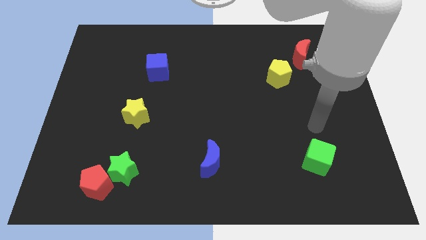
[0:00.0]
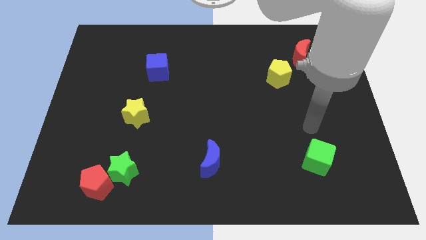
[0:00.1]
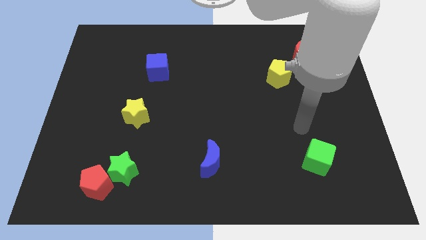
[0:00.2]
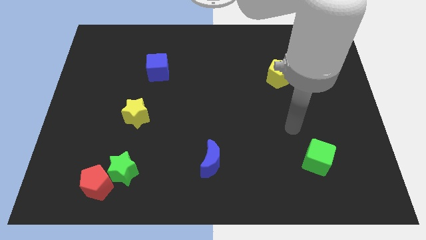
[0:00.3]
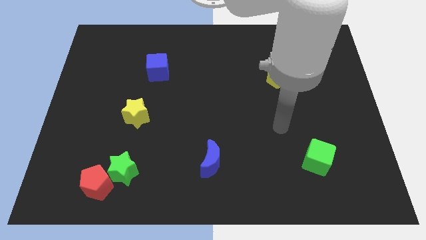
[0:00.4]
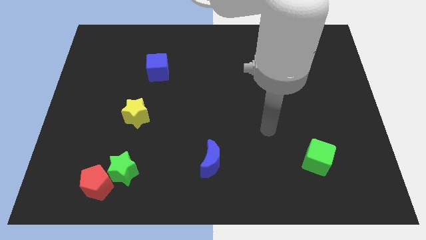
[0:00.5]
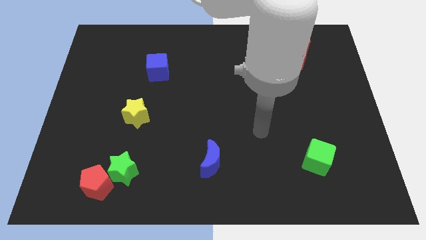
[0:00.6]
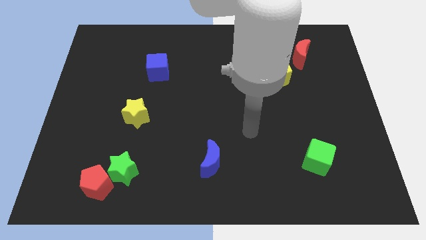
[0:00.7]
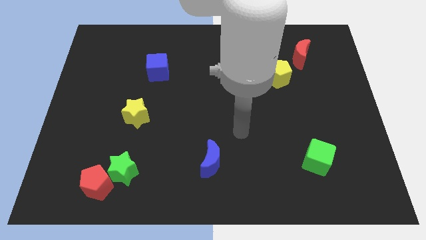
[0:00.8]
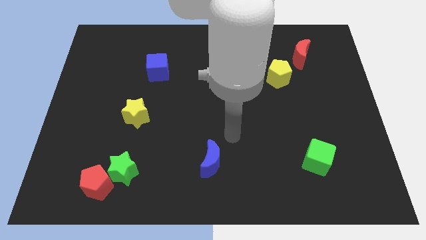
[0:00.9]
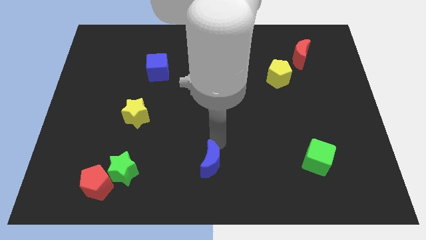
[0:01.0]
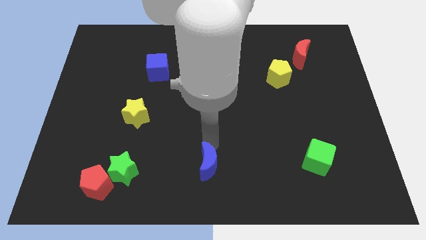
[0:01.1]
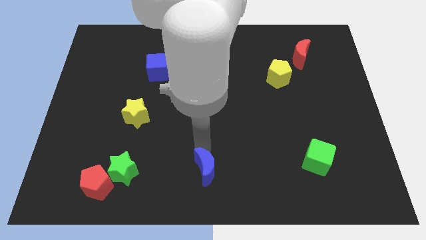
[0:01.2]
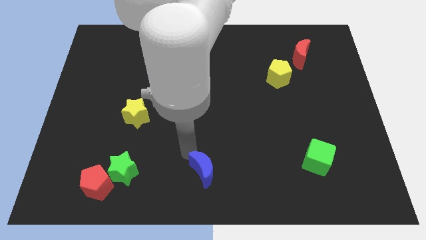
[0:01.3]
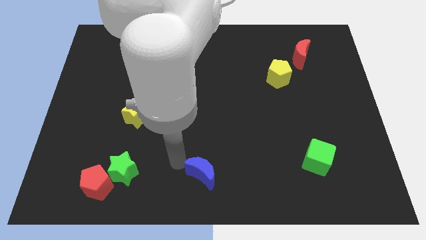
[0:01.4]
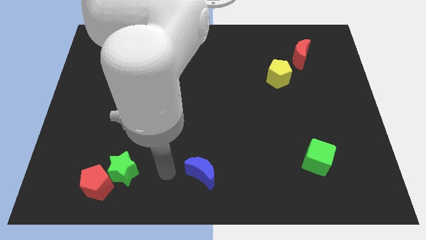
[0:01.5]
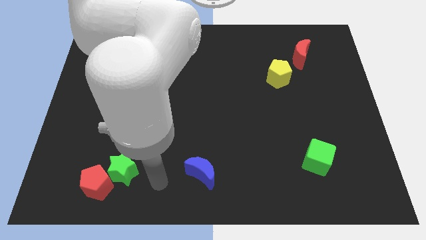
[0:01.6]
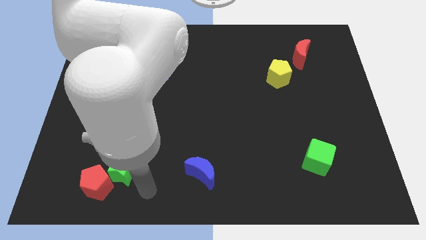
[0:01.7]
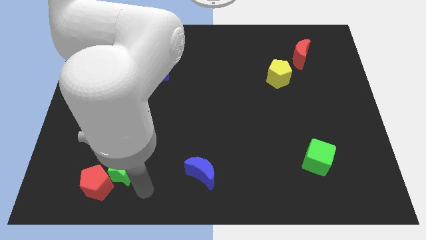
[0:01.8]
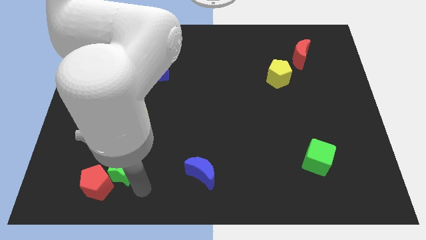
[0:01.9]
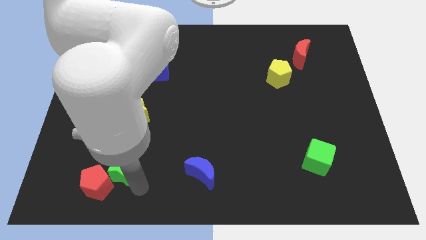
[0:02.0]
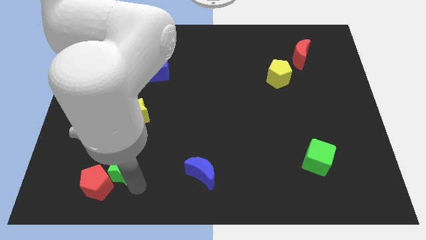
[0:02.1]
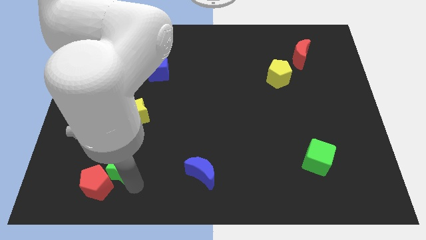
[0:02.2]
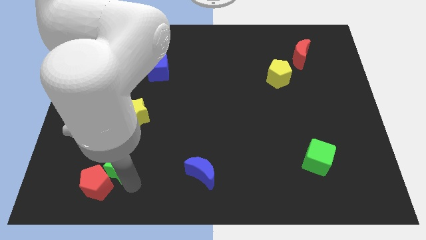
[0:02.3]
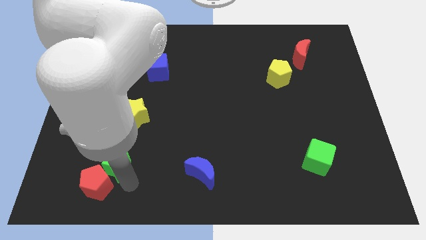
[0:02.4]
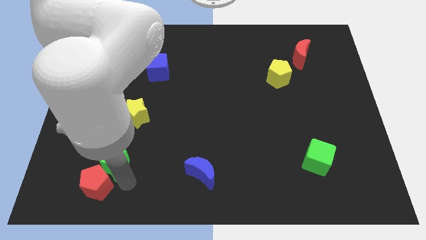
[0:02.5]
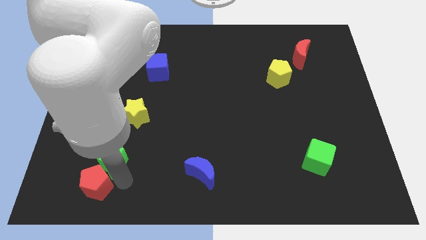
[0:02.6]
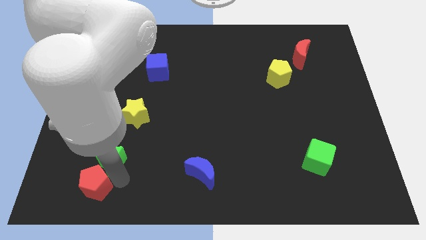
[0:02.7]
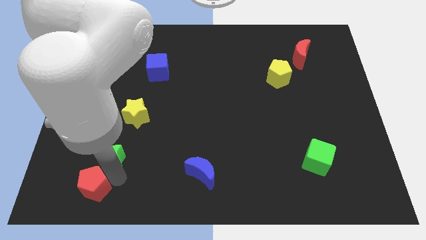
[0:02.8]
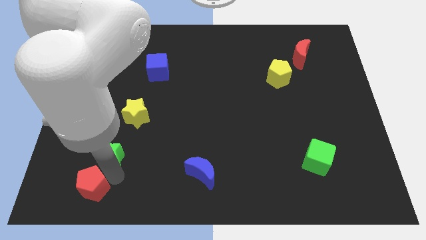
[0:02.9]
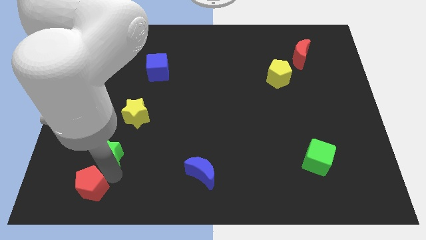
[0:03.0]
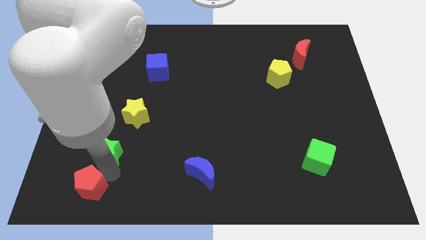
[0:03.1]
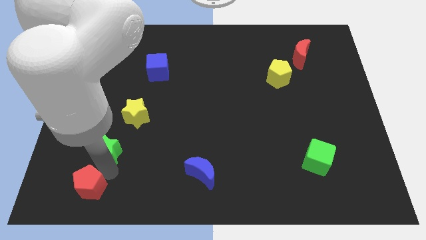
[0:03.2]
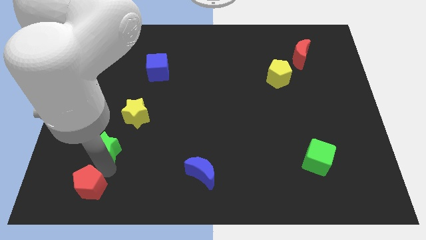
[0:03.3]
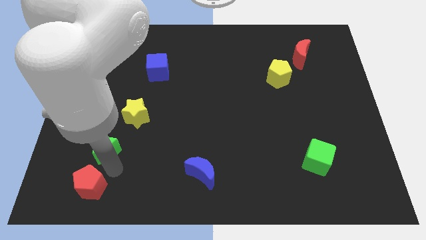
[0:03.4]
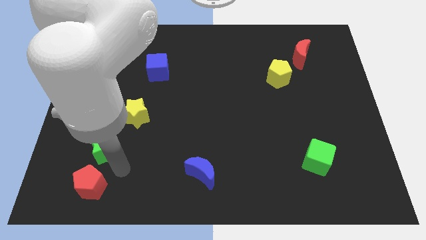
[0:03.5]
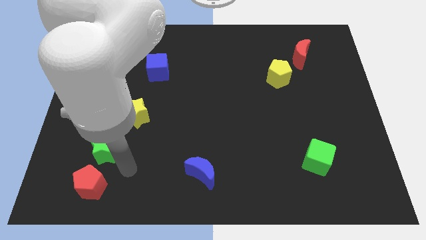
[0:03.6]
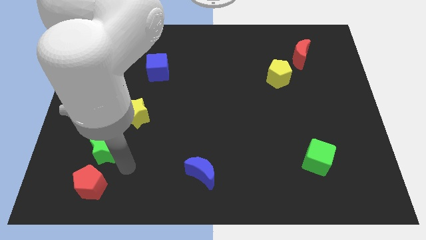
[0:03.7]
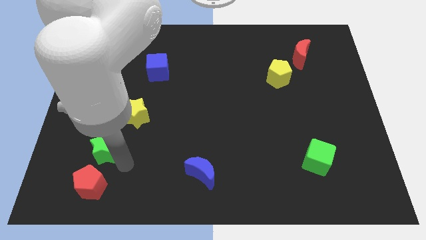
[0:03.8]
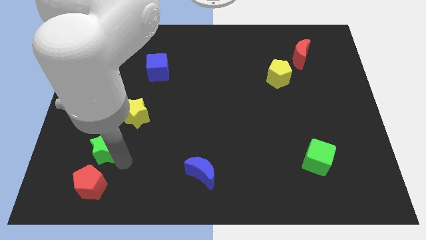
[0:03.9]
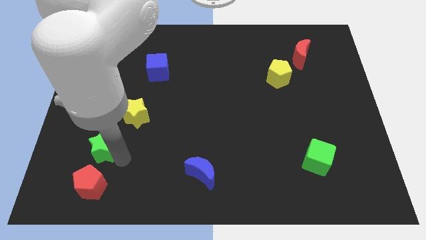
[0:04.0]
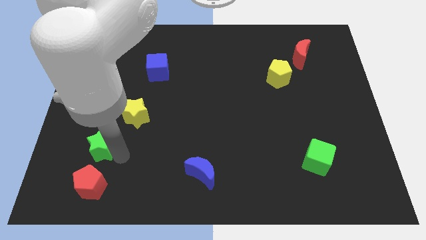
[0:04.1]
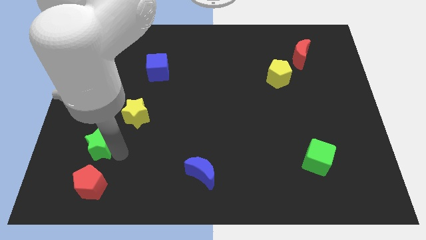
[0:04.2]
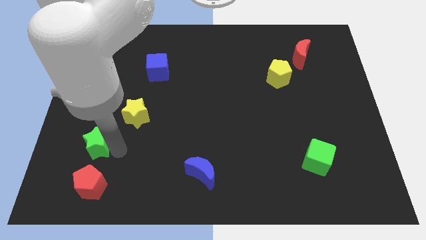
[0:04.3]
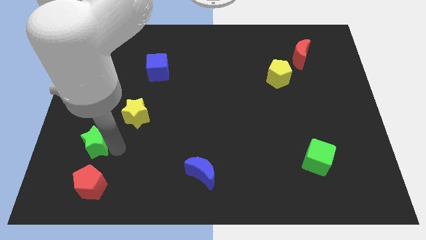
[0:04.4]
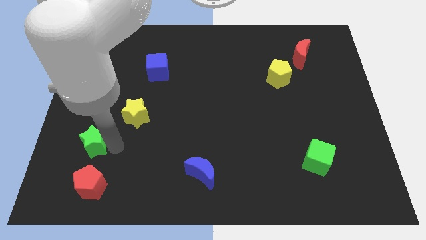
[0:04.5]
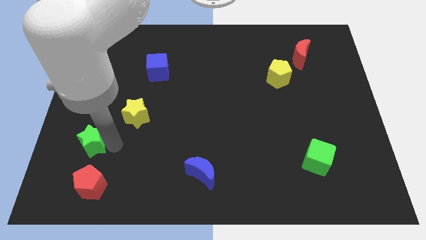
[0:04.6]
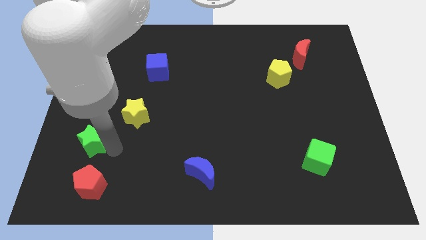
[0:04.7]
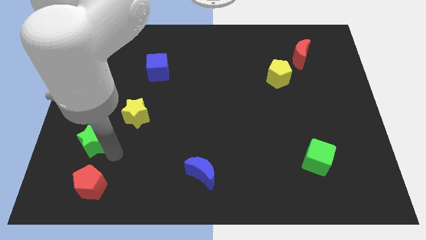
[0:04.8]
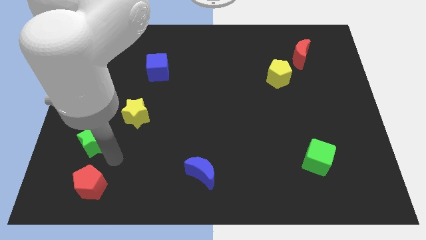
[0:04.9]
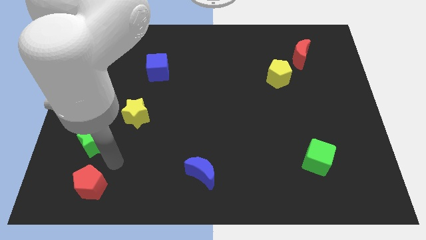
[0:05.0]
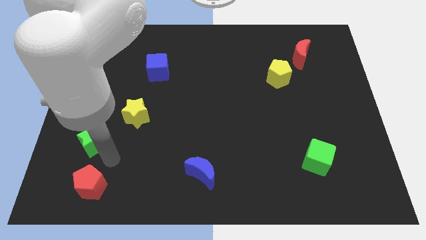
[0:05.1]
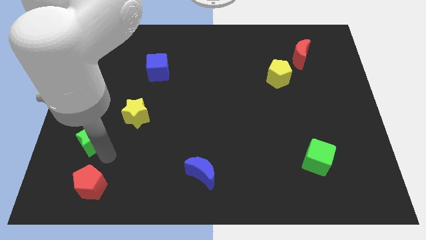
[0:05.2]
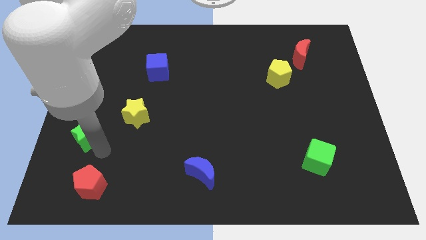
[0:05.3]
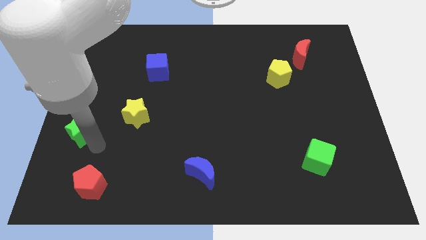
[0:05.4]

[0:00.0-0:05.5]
push the green star to the left side of the board

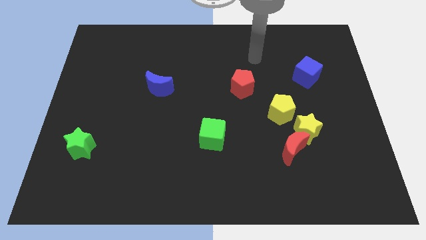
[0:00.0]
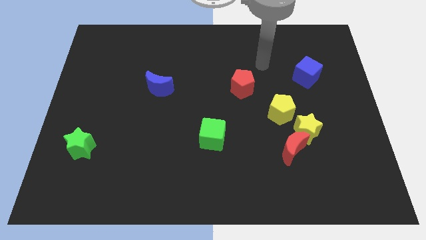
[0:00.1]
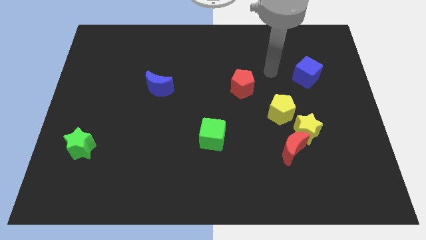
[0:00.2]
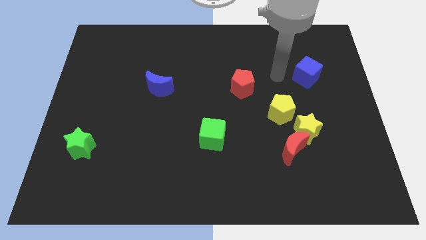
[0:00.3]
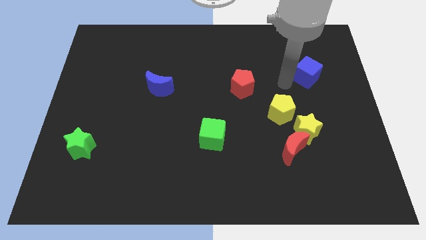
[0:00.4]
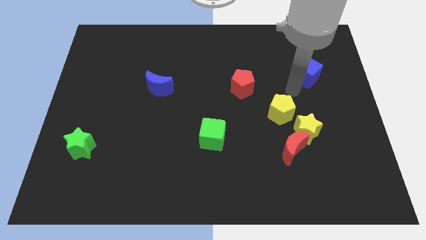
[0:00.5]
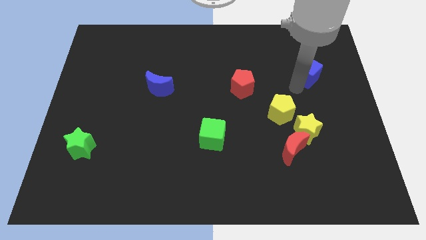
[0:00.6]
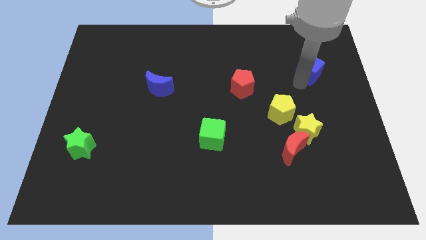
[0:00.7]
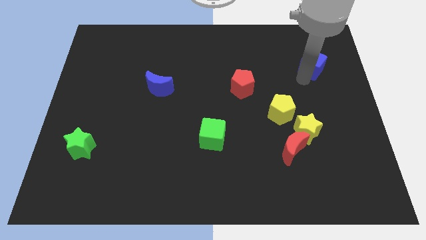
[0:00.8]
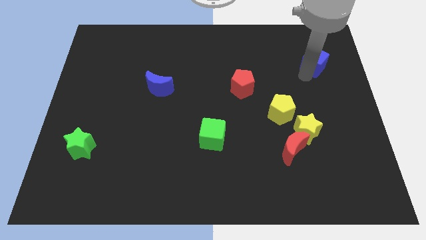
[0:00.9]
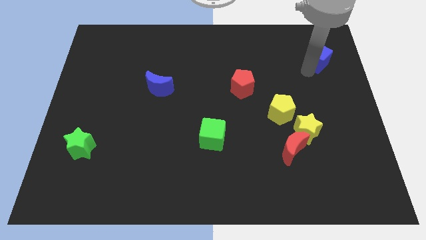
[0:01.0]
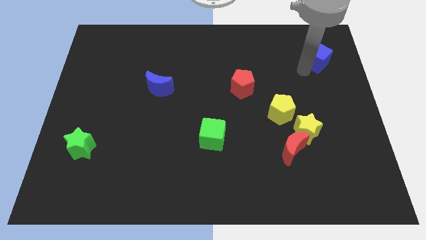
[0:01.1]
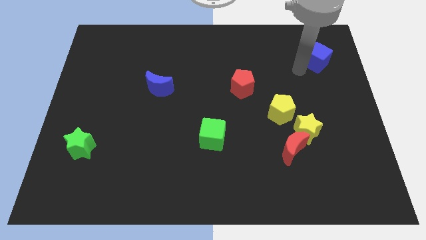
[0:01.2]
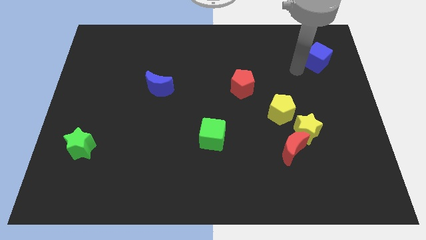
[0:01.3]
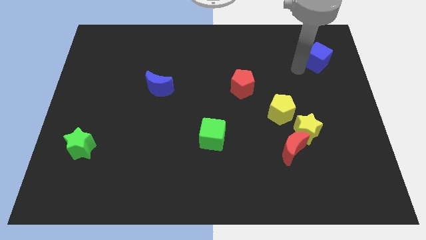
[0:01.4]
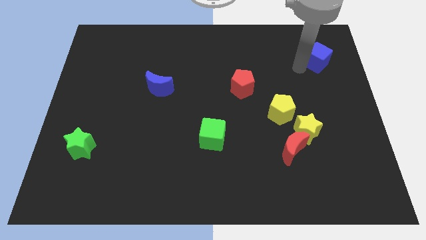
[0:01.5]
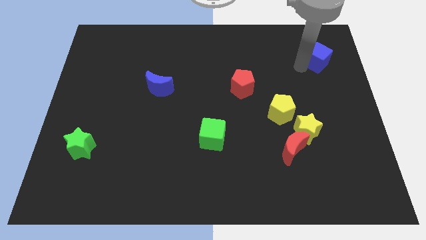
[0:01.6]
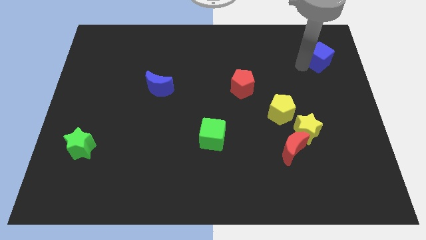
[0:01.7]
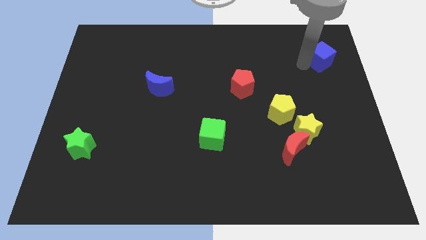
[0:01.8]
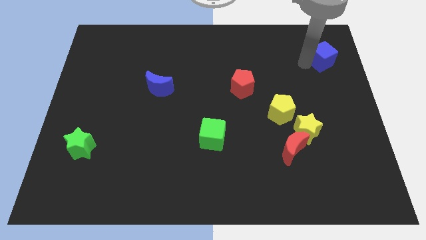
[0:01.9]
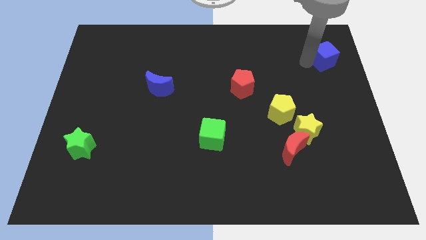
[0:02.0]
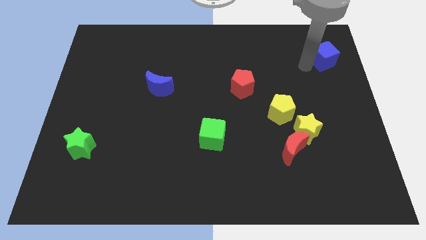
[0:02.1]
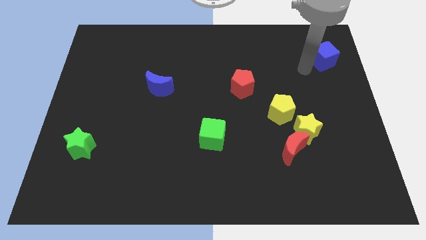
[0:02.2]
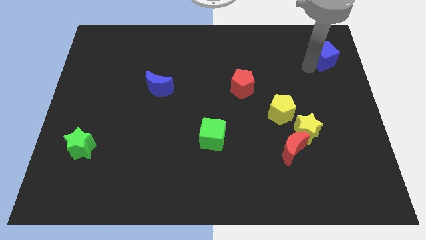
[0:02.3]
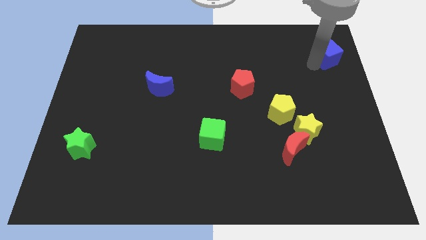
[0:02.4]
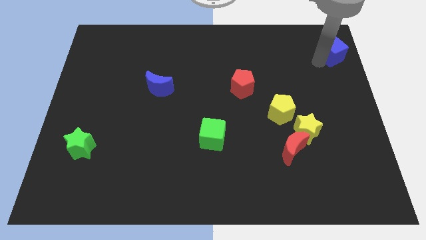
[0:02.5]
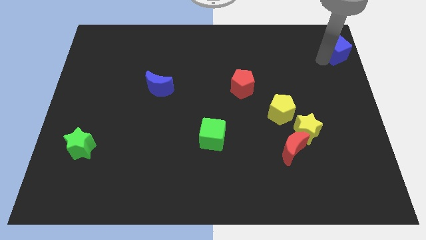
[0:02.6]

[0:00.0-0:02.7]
slide the blue cube to the upper right corner
